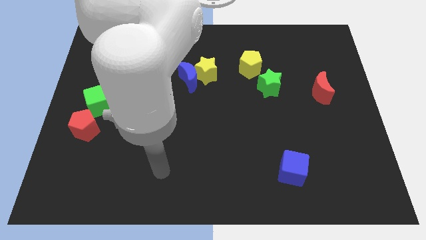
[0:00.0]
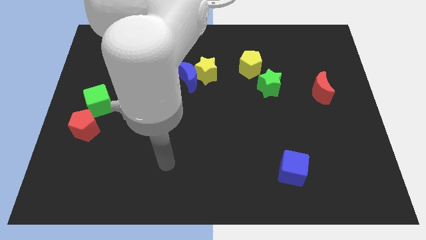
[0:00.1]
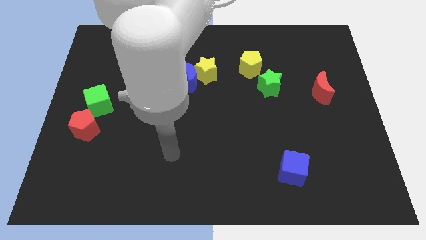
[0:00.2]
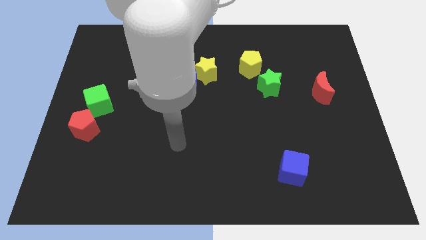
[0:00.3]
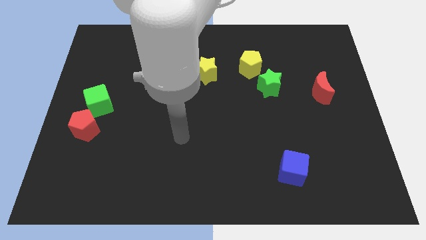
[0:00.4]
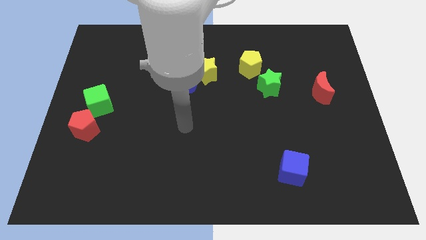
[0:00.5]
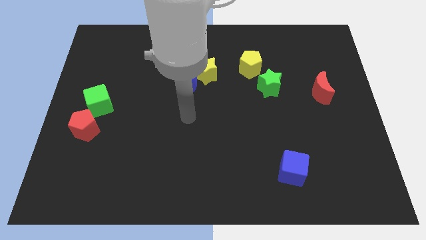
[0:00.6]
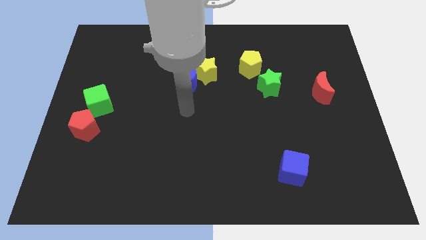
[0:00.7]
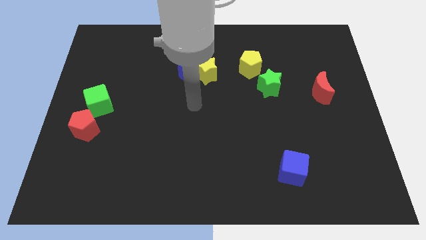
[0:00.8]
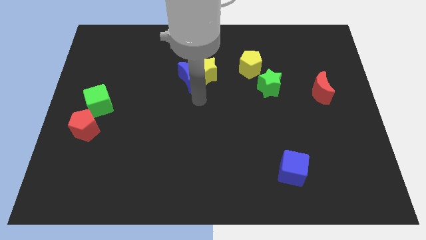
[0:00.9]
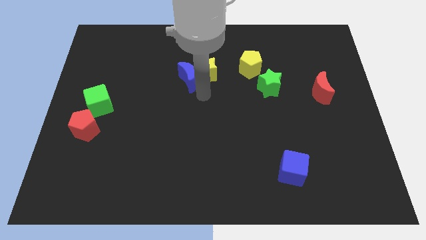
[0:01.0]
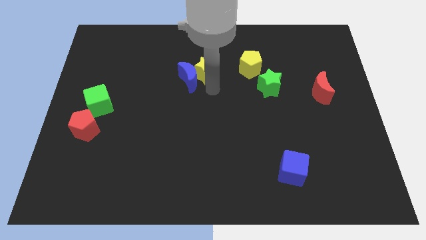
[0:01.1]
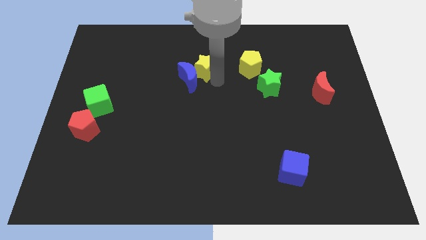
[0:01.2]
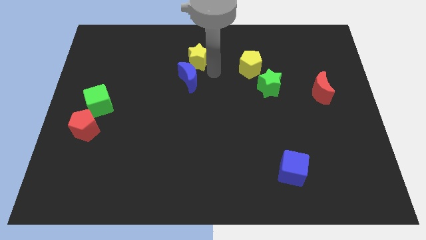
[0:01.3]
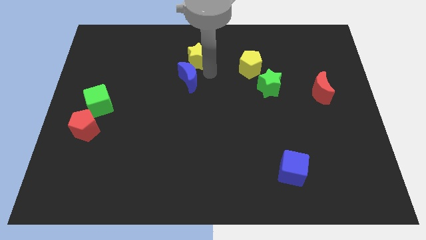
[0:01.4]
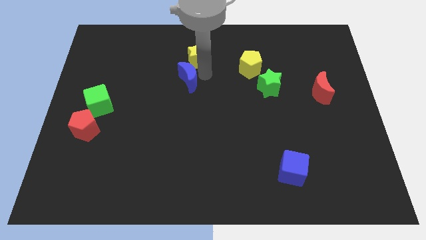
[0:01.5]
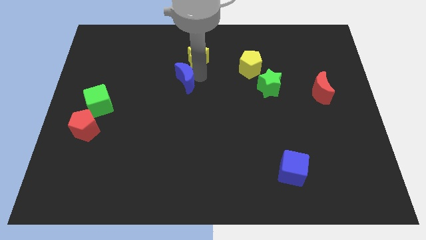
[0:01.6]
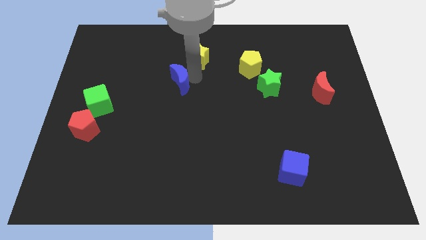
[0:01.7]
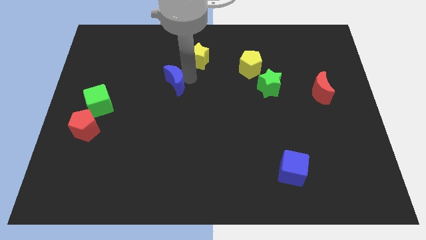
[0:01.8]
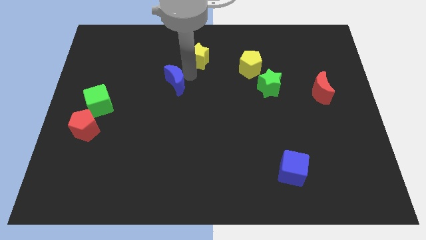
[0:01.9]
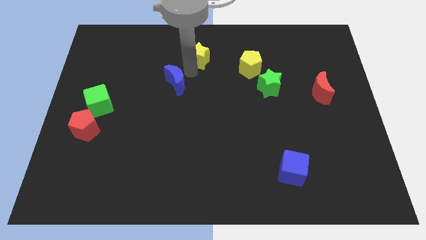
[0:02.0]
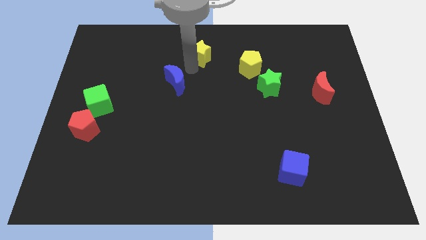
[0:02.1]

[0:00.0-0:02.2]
separate the blue moon from the yellow star

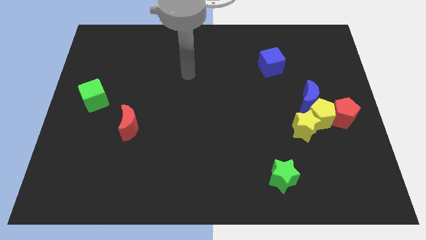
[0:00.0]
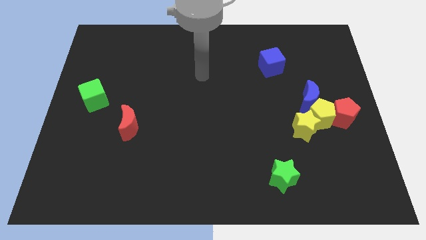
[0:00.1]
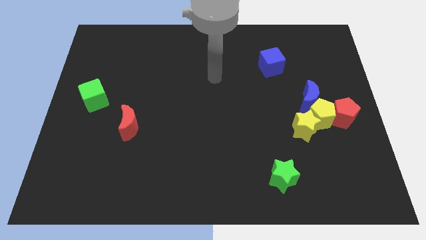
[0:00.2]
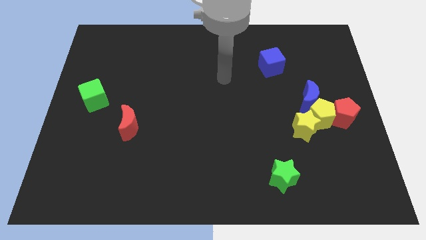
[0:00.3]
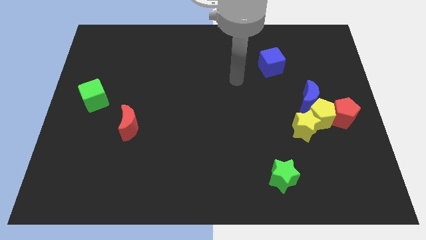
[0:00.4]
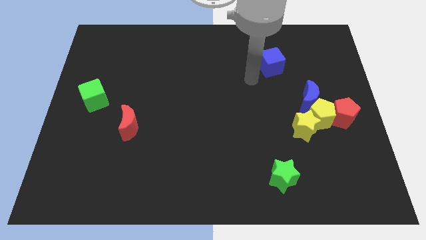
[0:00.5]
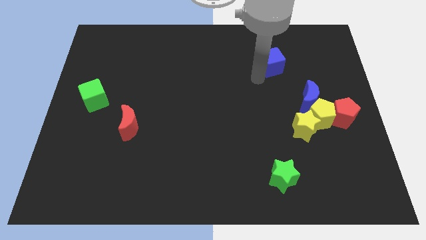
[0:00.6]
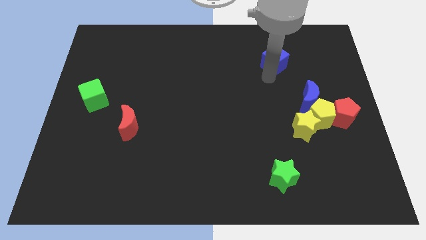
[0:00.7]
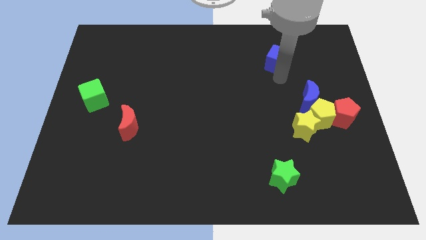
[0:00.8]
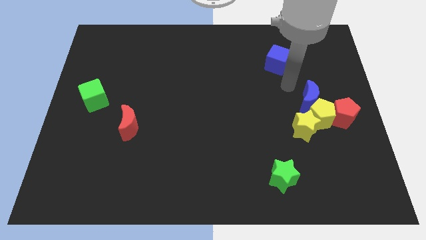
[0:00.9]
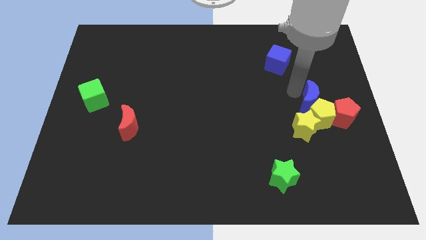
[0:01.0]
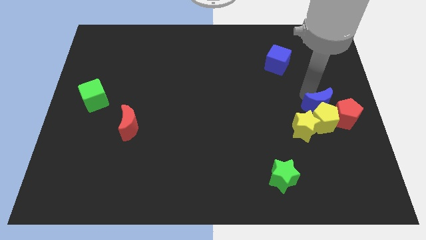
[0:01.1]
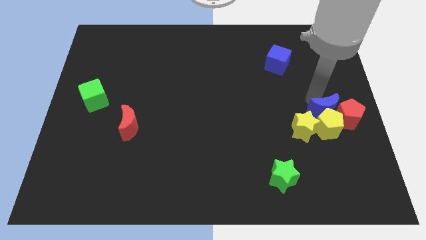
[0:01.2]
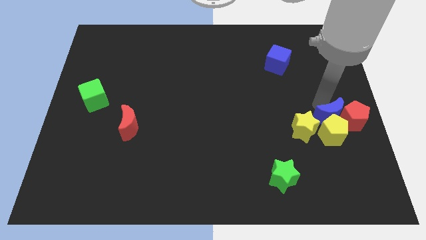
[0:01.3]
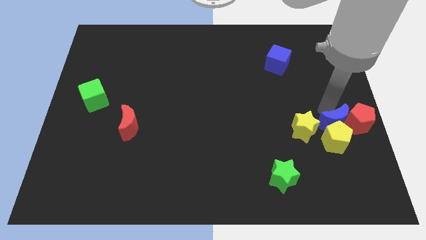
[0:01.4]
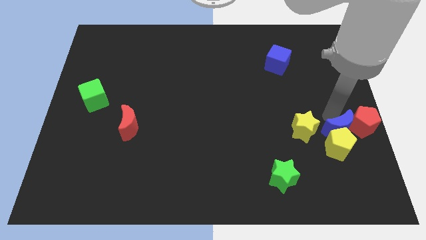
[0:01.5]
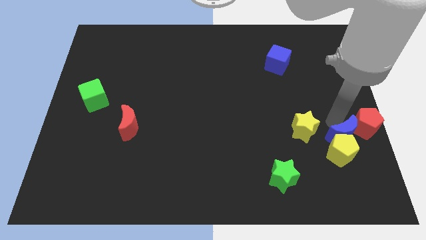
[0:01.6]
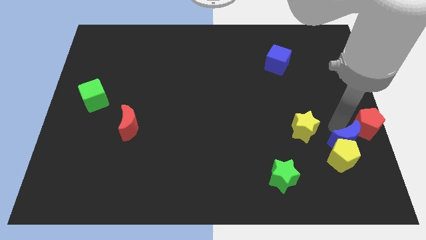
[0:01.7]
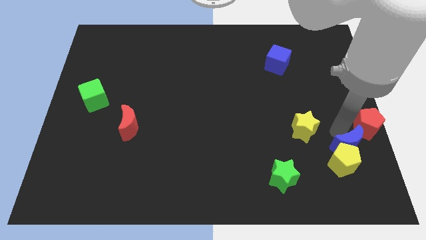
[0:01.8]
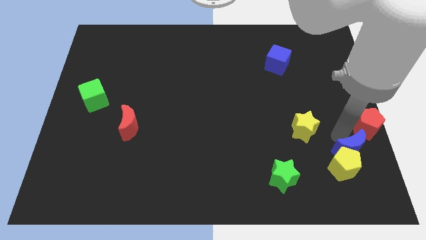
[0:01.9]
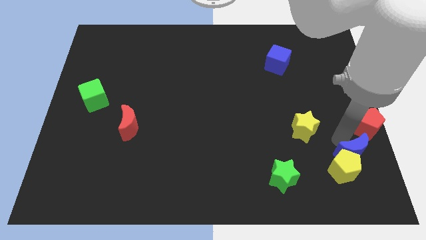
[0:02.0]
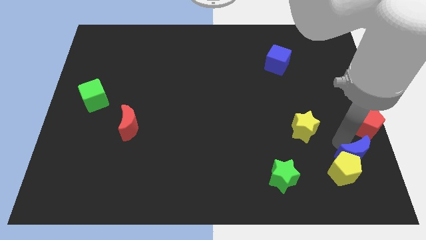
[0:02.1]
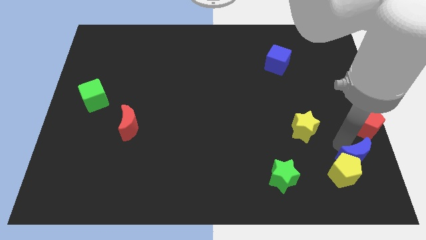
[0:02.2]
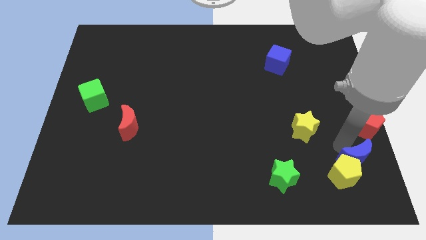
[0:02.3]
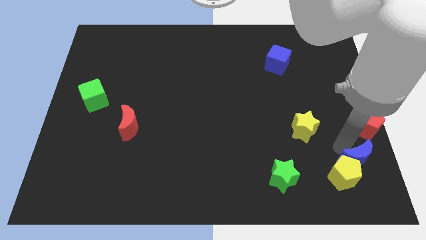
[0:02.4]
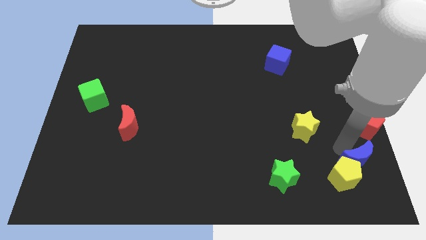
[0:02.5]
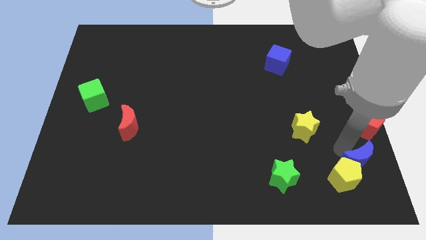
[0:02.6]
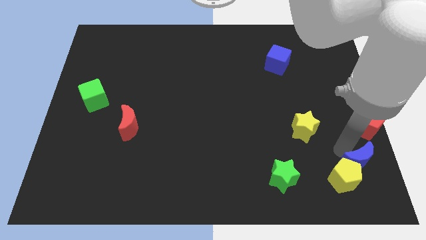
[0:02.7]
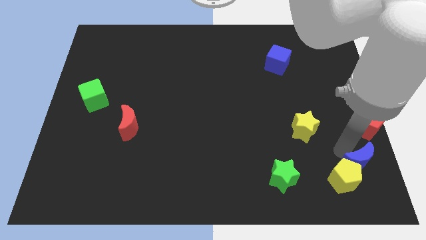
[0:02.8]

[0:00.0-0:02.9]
move the yellow pentagon away from the yellow star, blue moon, and red pentagon

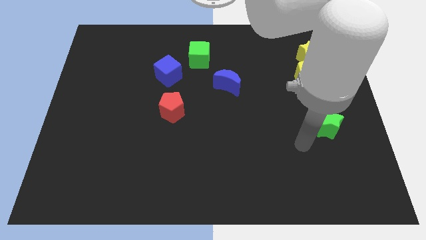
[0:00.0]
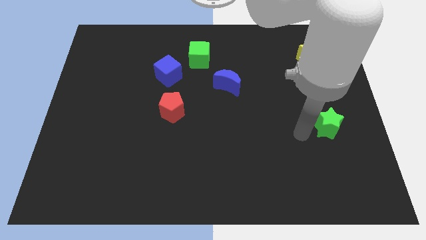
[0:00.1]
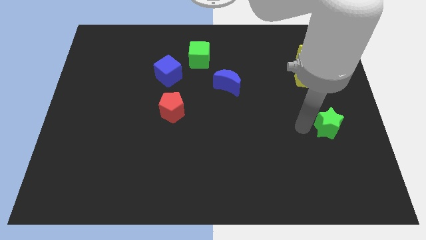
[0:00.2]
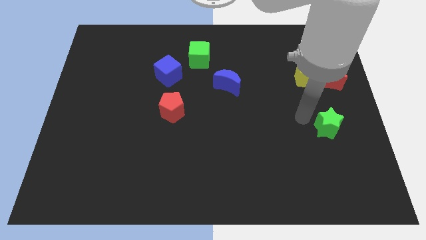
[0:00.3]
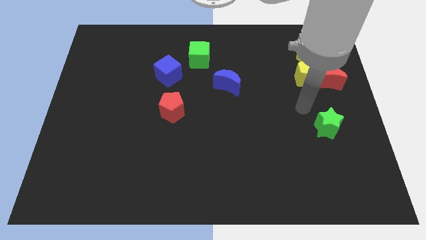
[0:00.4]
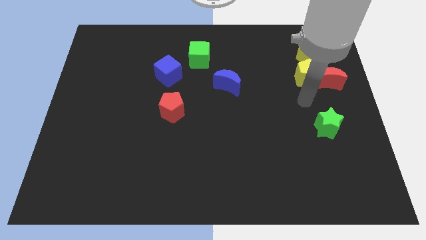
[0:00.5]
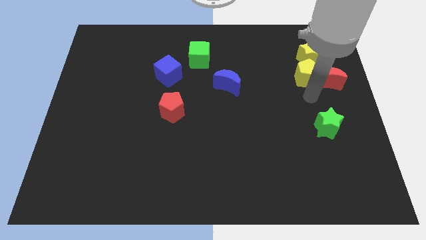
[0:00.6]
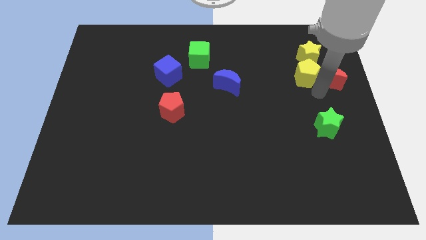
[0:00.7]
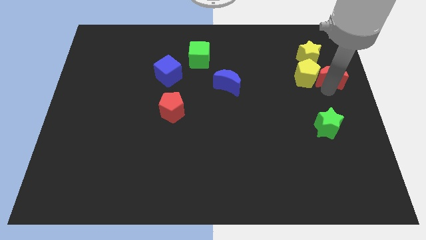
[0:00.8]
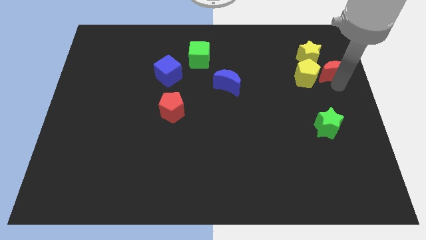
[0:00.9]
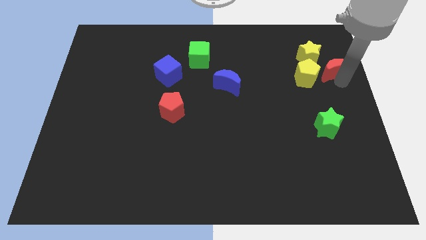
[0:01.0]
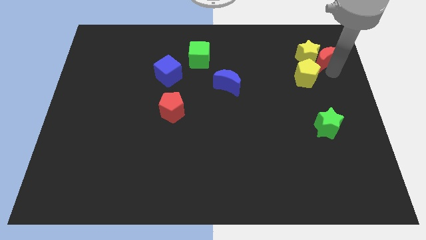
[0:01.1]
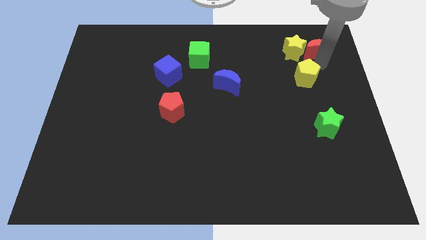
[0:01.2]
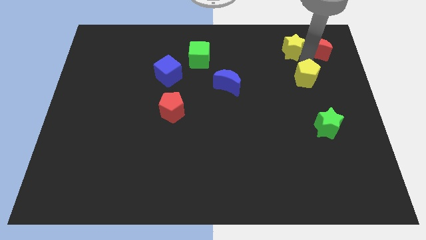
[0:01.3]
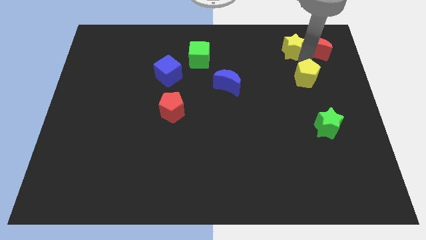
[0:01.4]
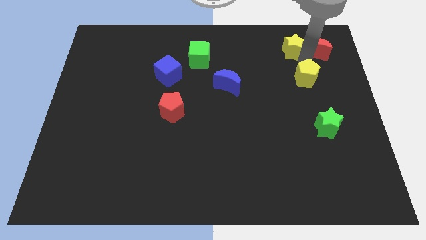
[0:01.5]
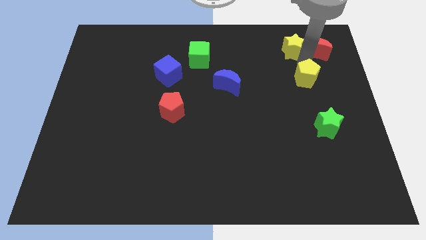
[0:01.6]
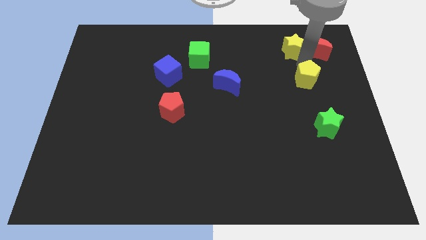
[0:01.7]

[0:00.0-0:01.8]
move the yellow pentagon away from the red moon and yellow star

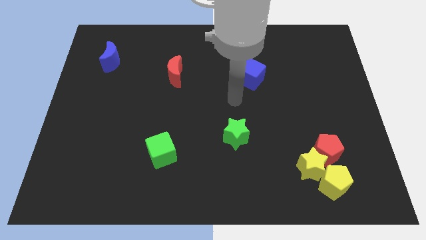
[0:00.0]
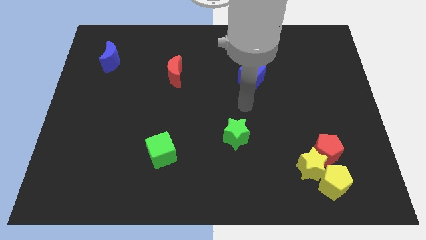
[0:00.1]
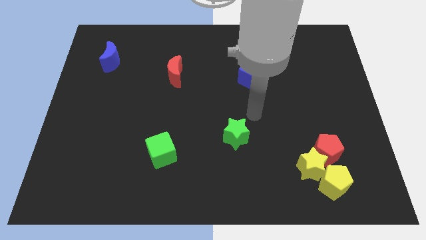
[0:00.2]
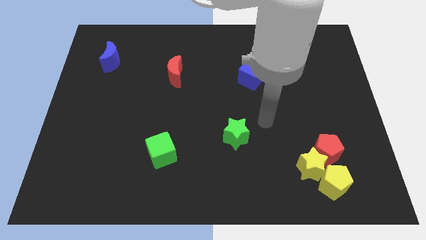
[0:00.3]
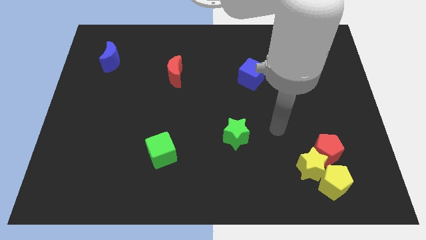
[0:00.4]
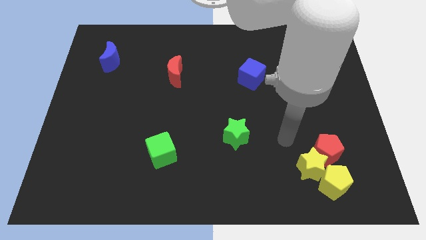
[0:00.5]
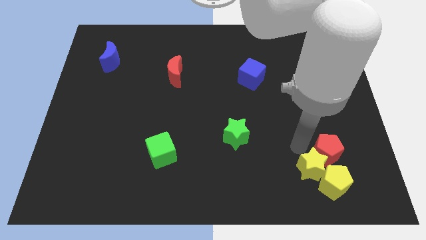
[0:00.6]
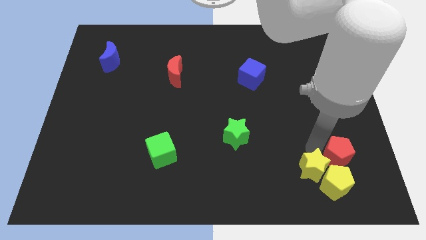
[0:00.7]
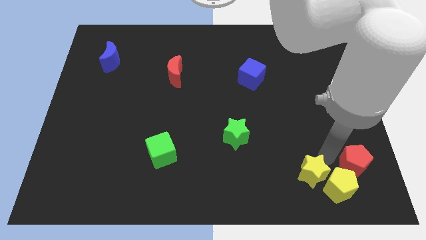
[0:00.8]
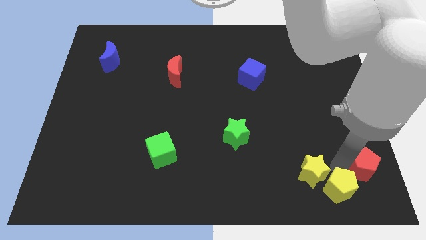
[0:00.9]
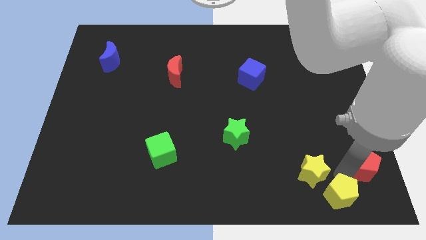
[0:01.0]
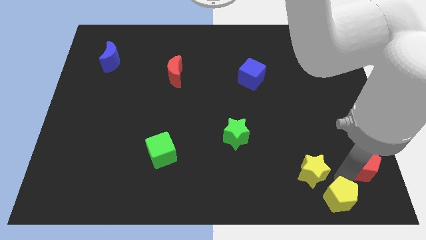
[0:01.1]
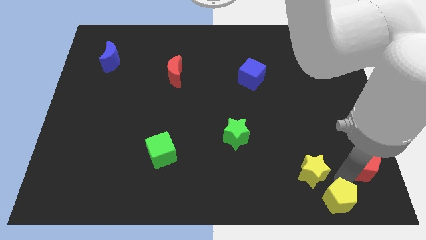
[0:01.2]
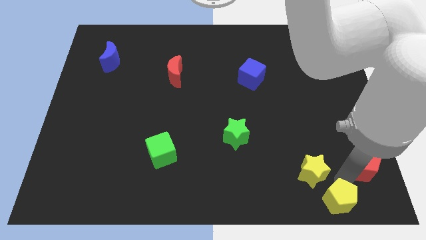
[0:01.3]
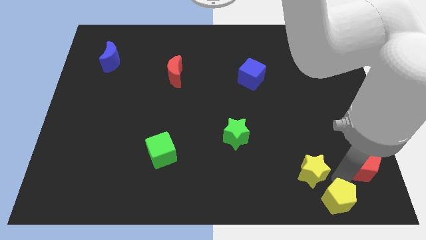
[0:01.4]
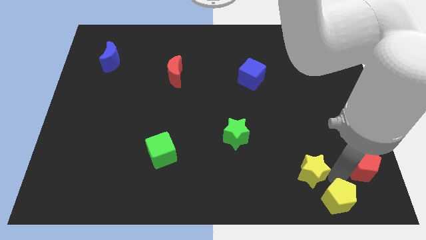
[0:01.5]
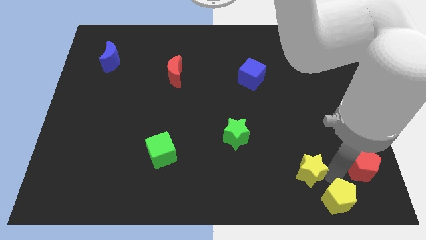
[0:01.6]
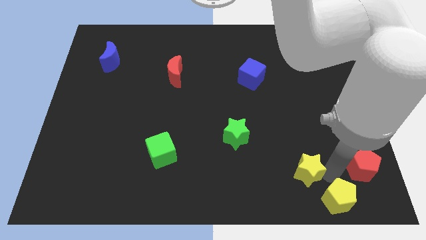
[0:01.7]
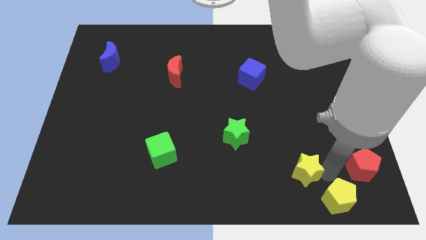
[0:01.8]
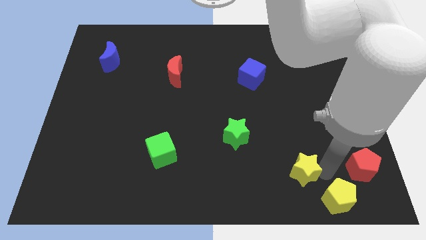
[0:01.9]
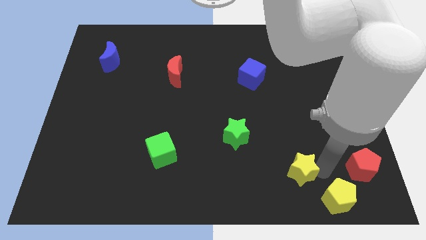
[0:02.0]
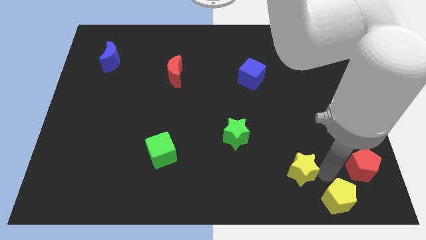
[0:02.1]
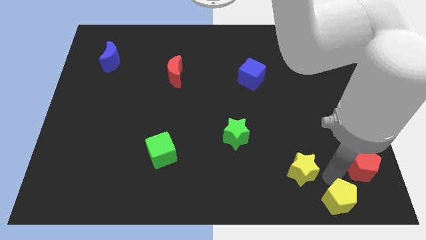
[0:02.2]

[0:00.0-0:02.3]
move the yellow star away from the red pentagon and yellow pentagon
